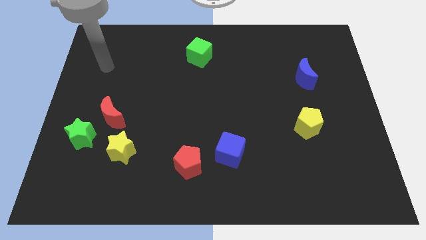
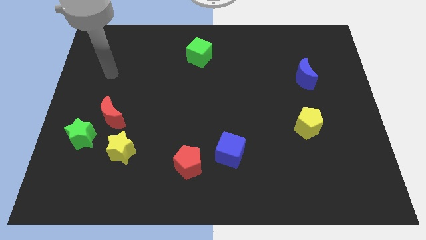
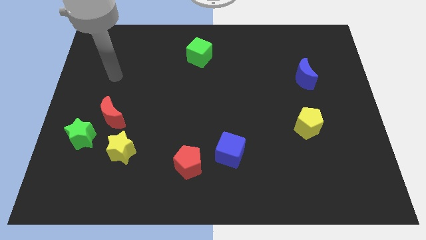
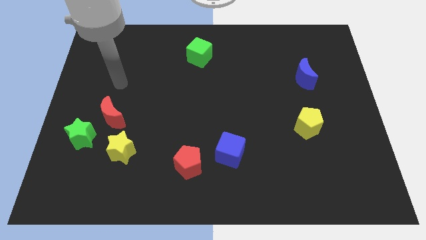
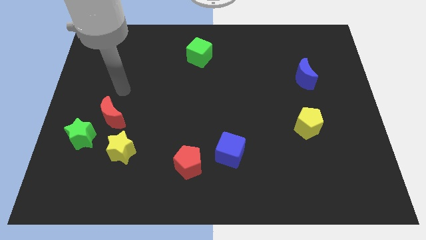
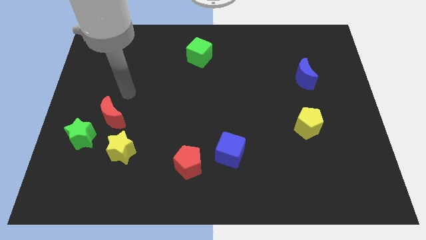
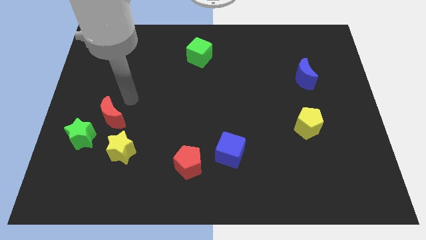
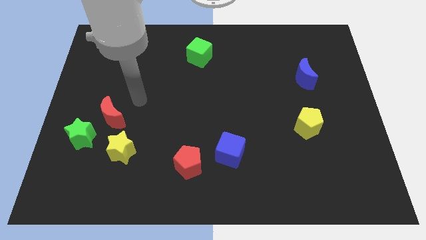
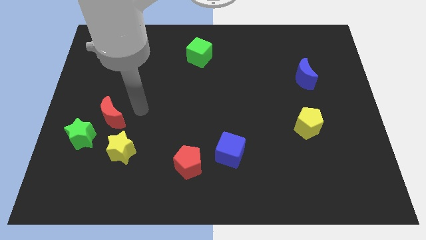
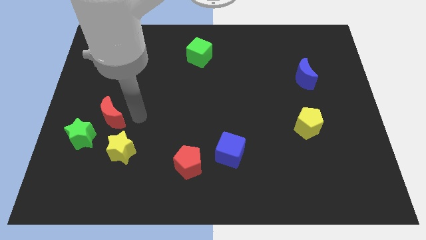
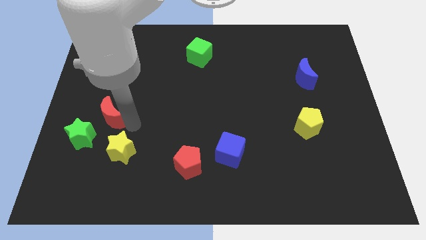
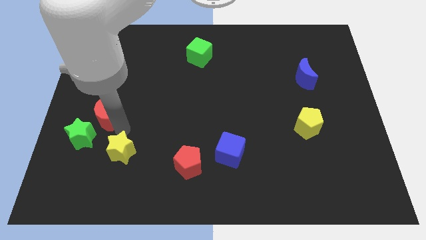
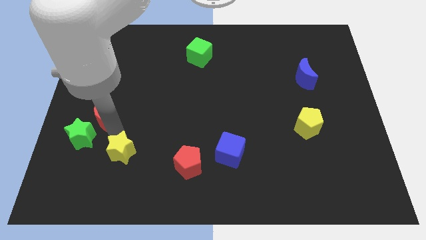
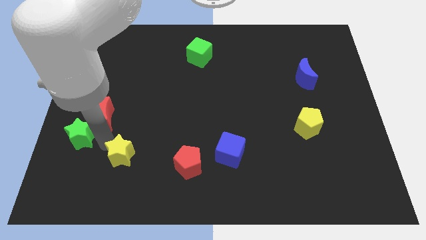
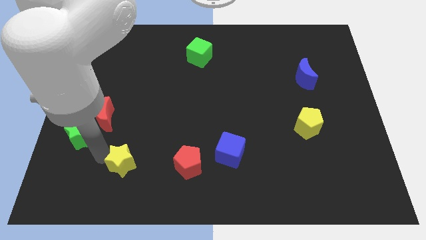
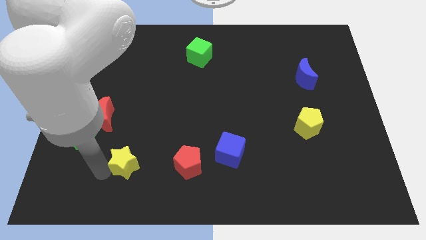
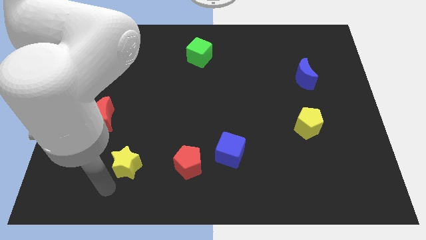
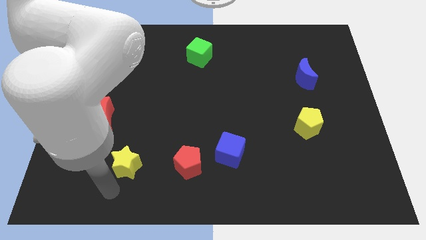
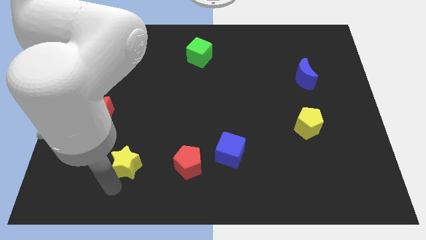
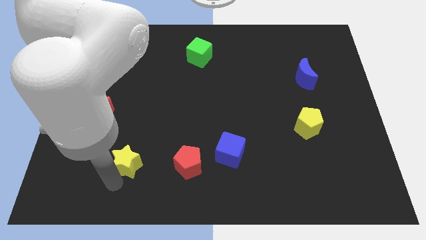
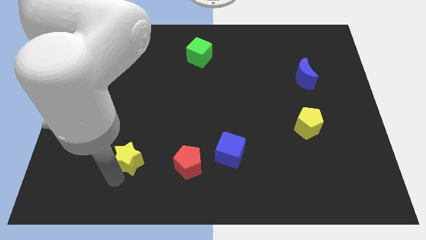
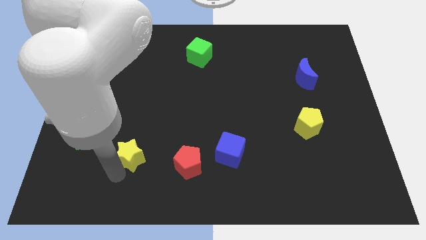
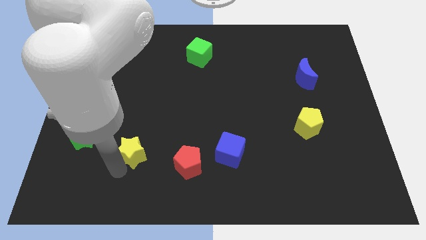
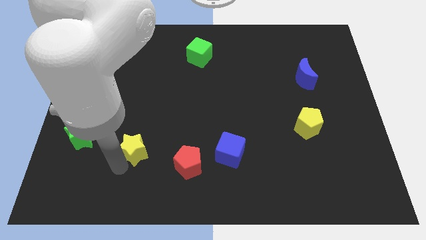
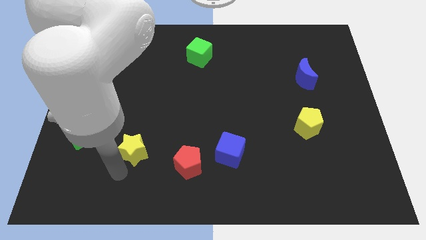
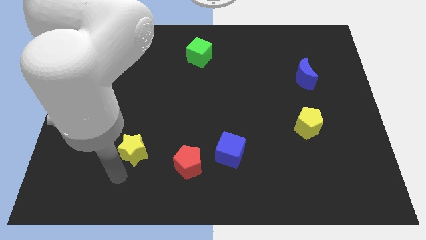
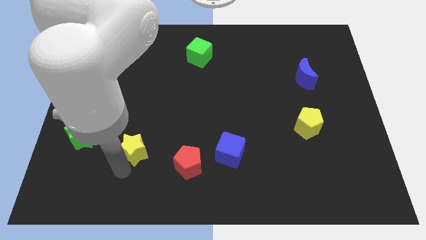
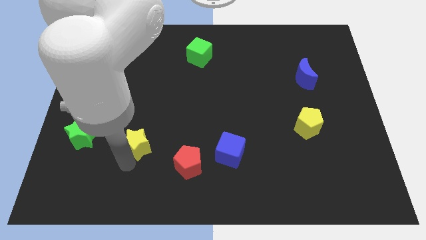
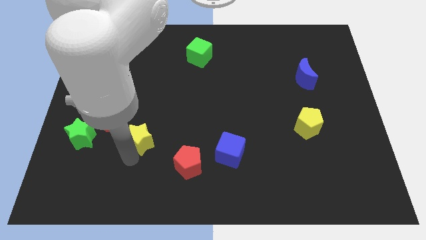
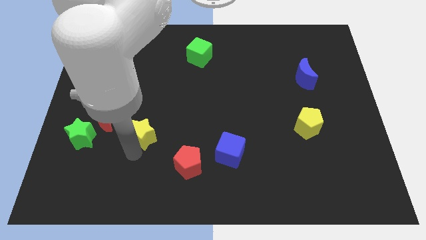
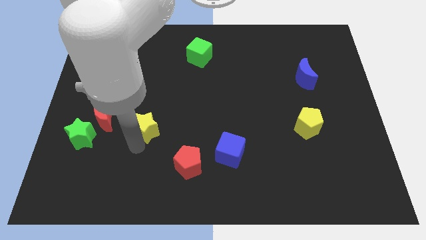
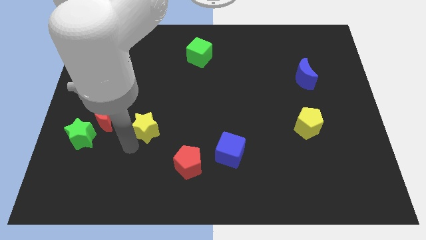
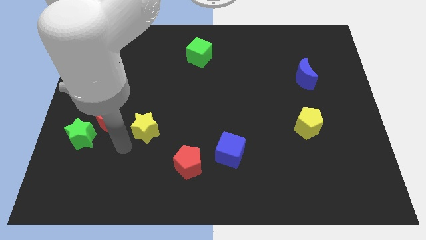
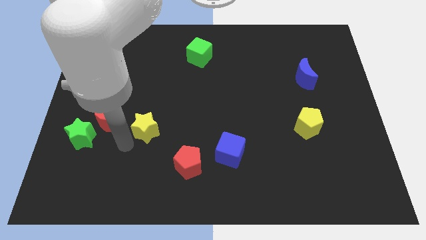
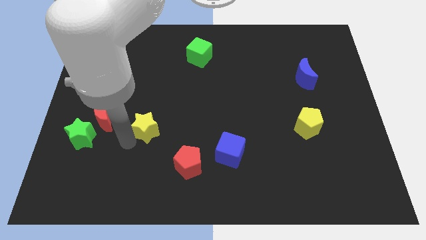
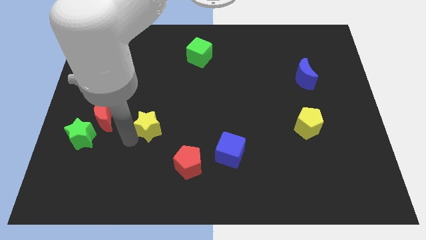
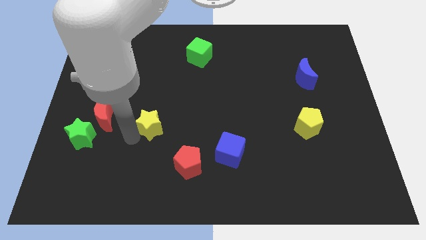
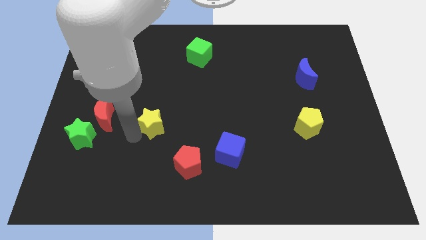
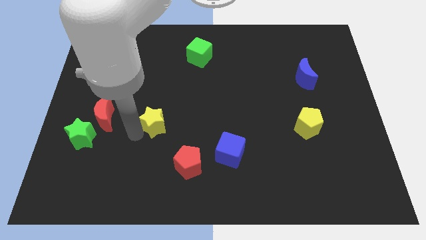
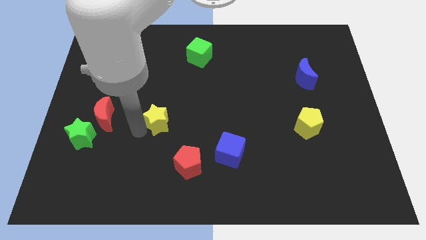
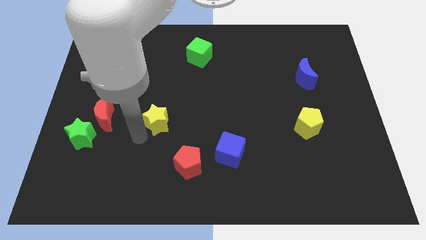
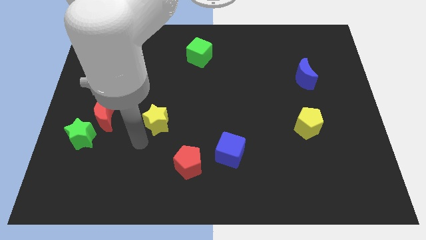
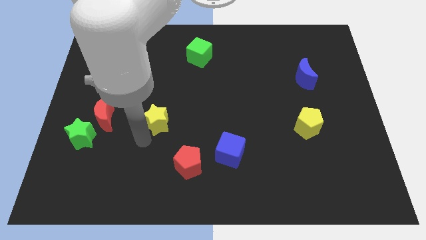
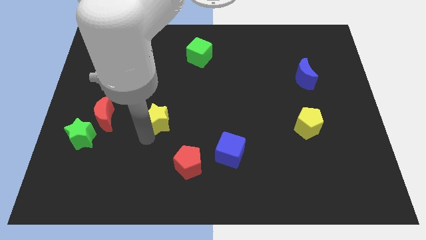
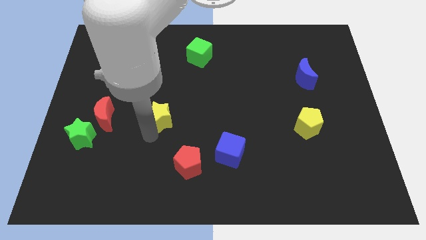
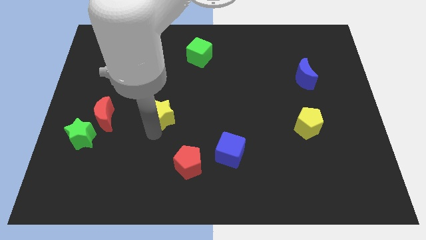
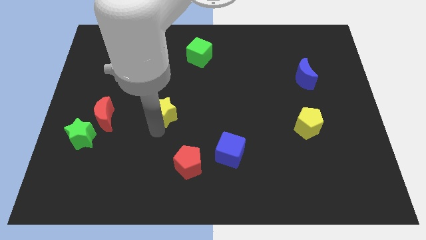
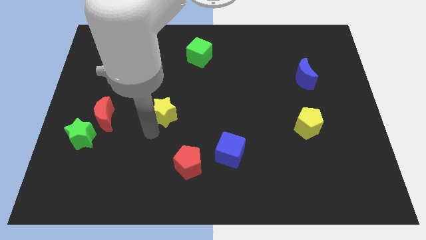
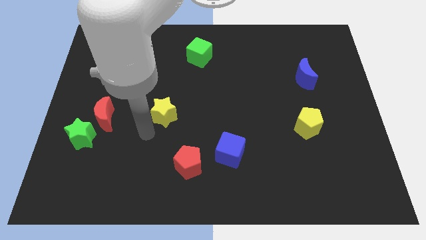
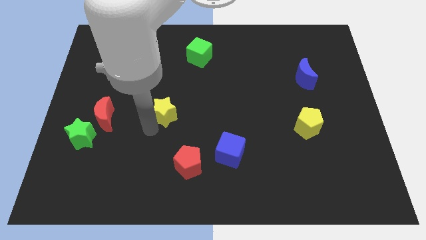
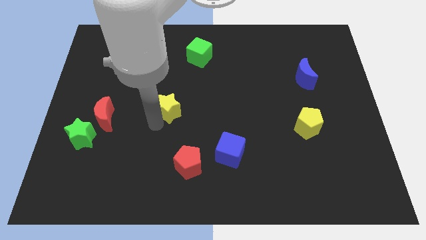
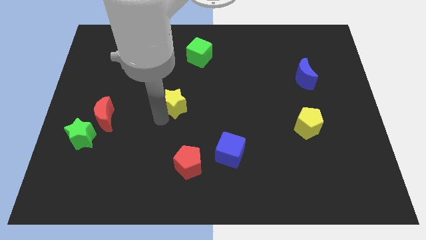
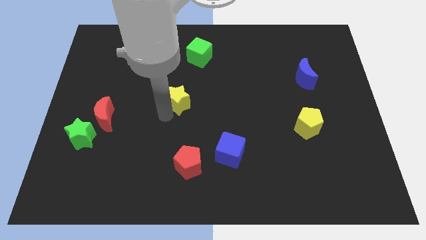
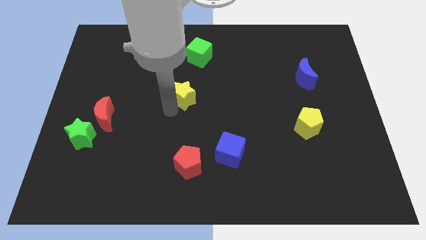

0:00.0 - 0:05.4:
put the yellow star below the green cube

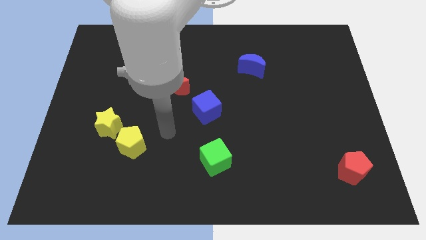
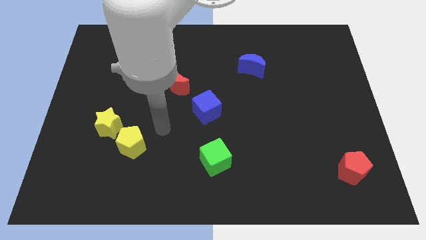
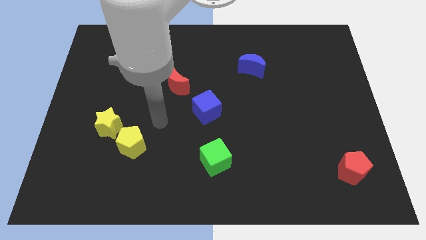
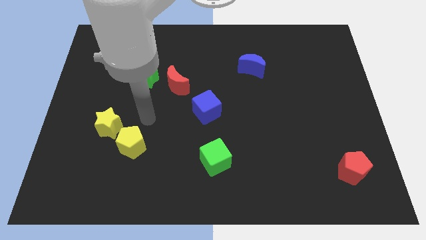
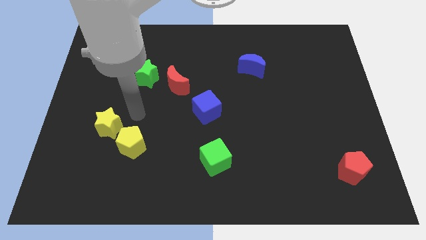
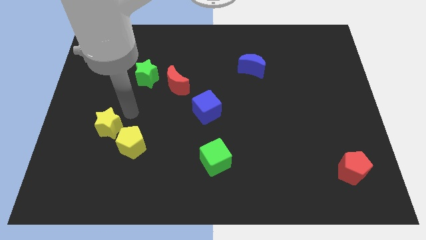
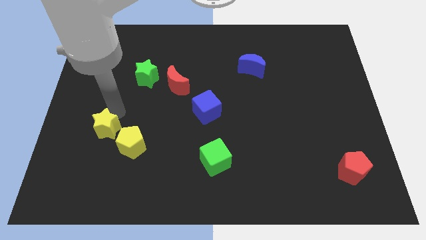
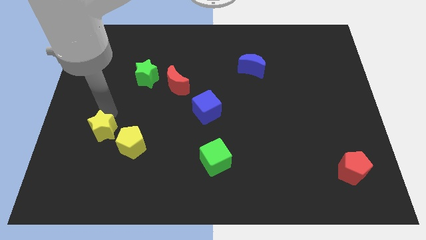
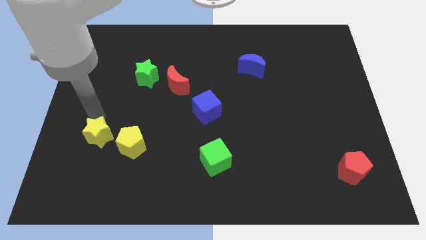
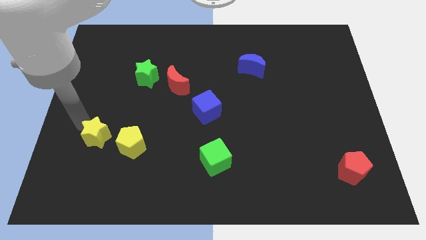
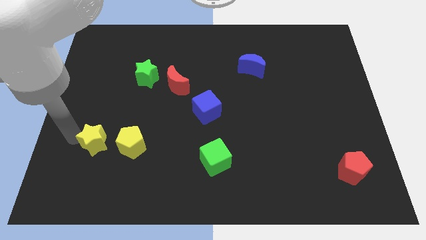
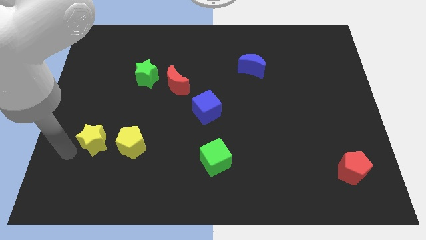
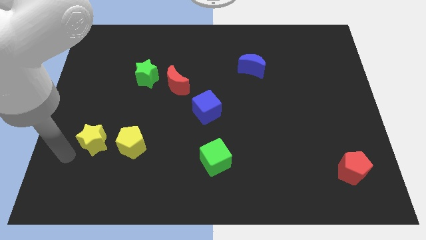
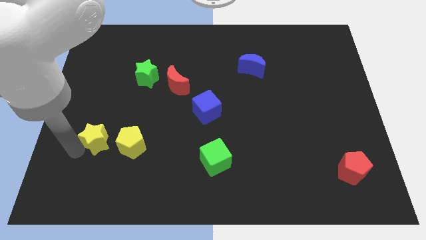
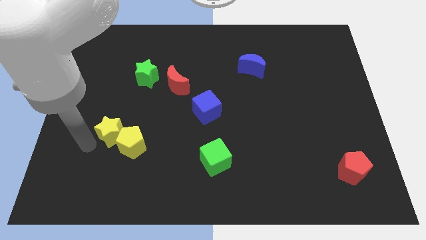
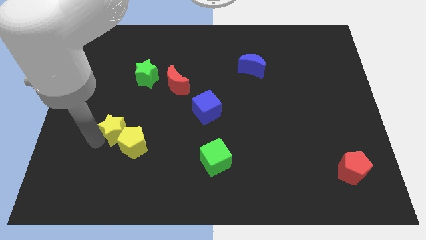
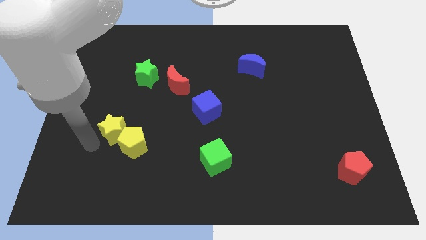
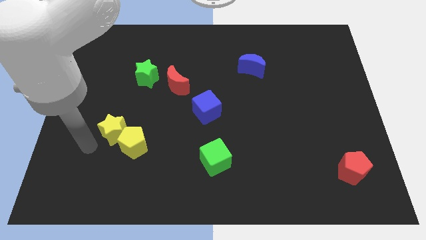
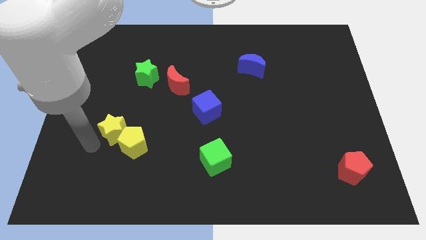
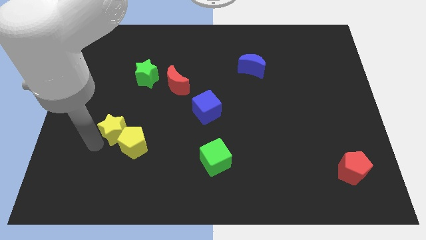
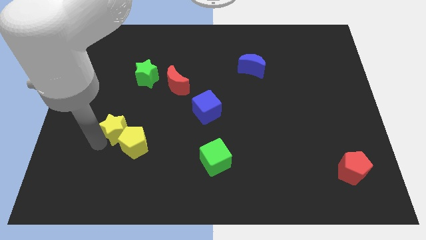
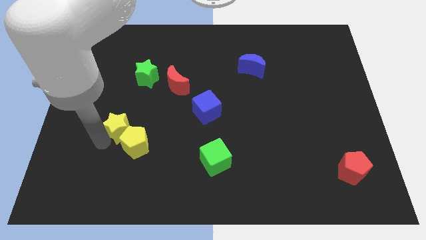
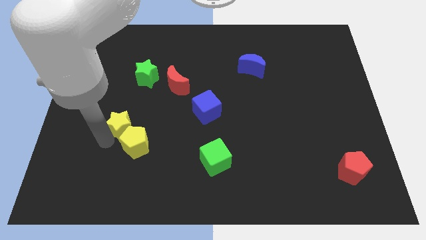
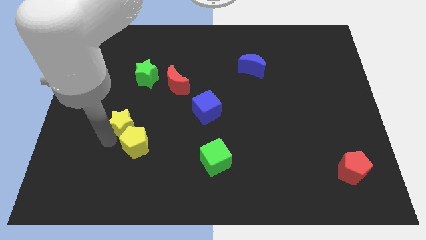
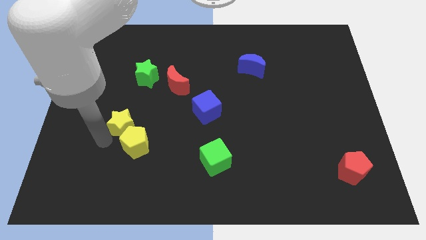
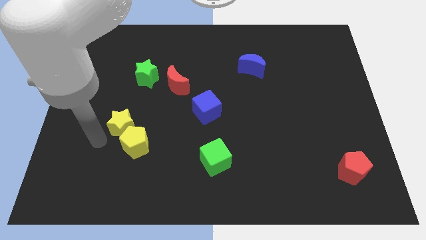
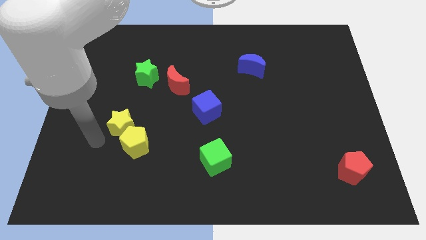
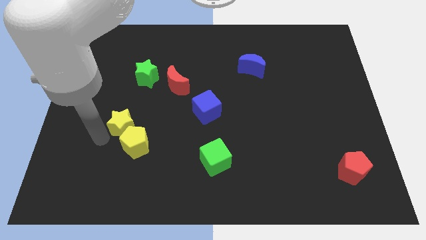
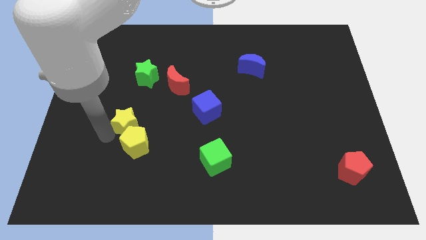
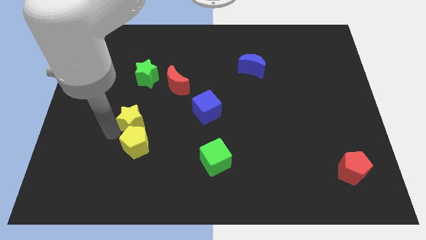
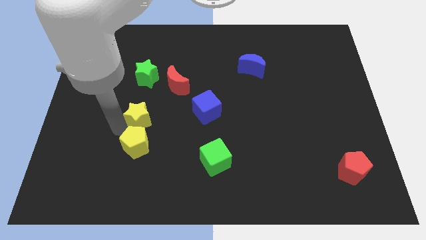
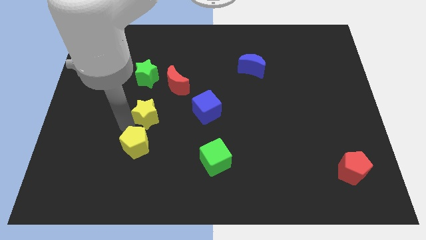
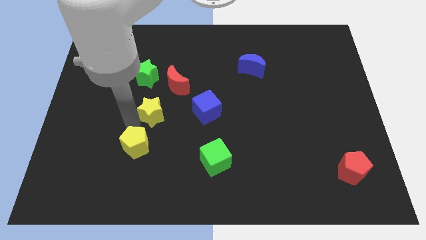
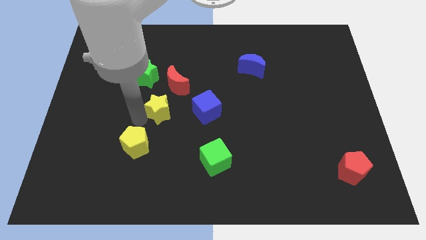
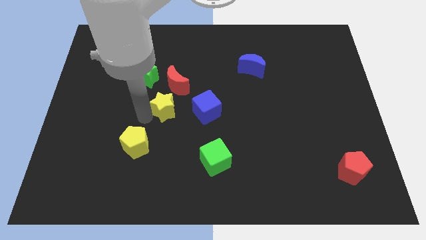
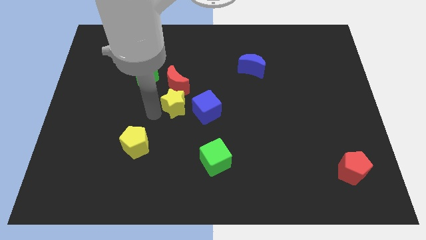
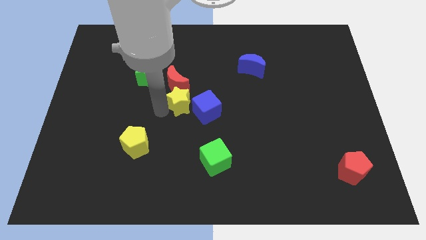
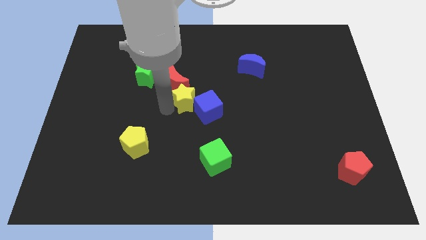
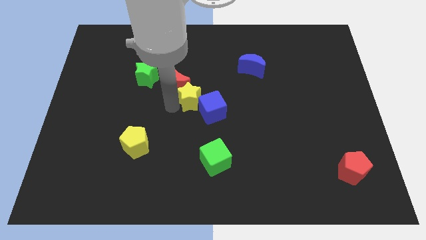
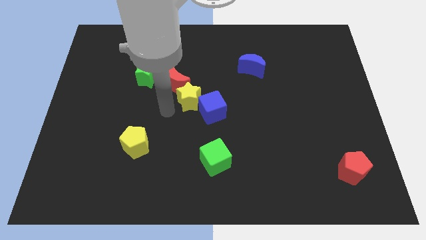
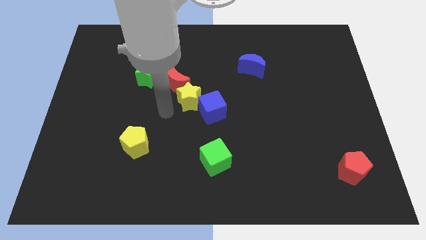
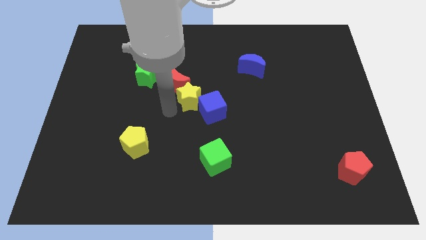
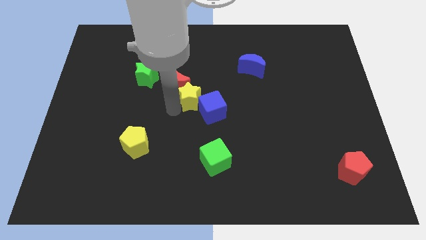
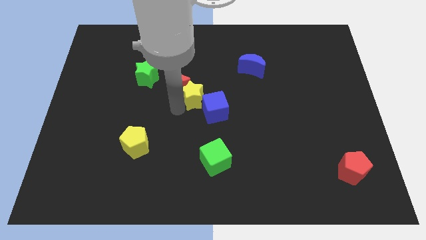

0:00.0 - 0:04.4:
slide the yellow star just right of the red moon
